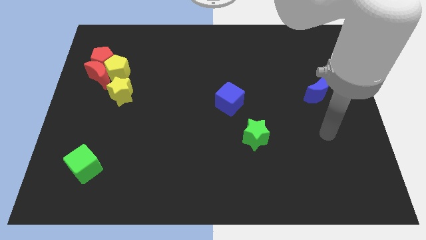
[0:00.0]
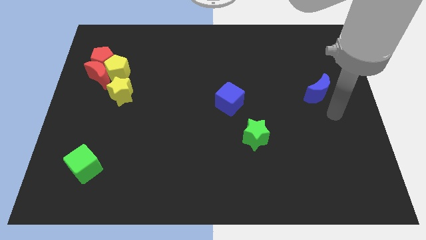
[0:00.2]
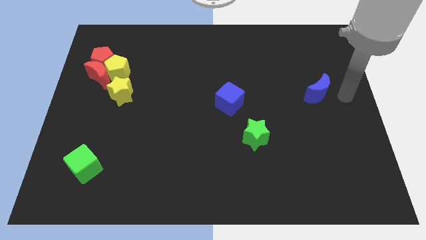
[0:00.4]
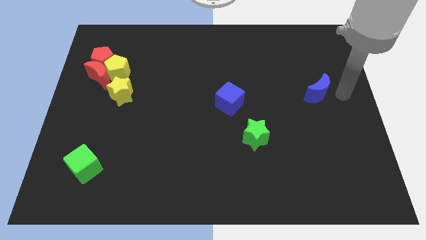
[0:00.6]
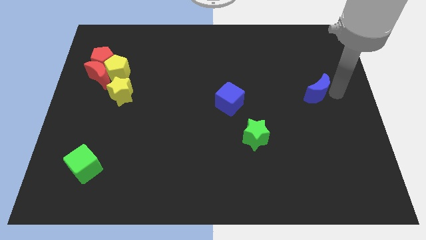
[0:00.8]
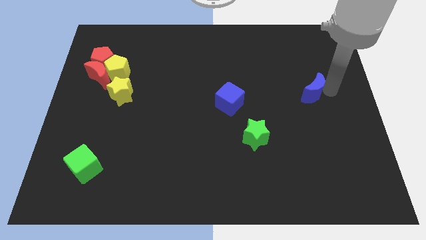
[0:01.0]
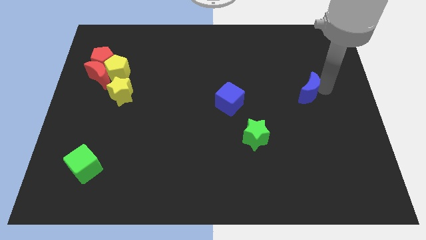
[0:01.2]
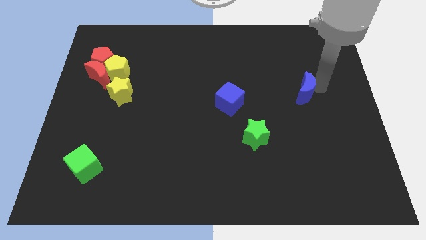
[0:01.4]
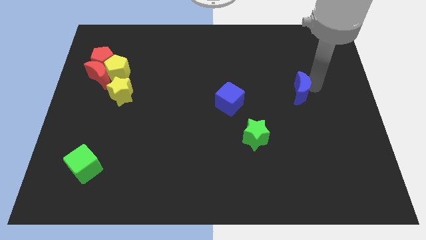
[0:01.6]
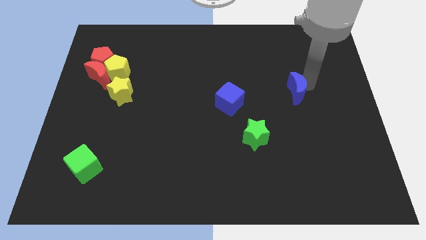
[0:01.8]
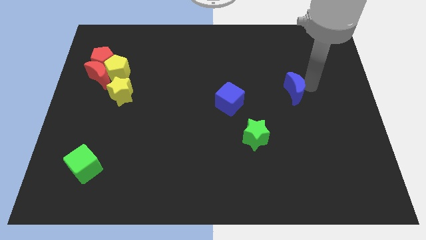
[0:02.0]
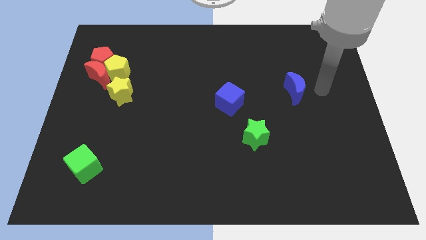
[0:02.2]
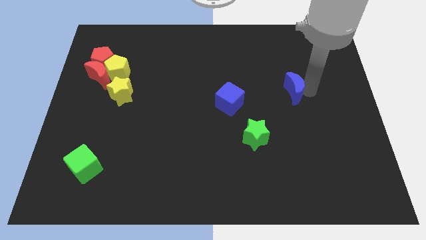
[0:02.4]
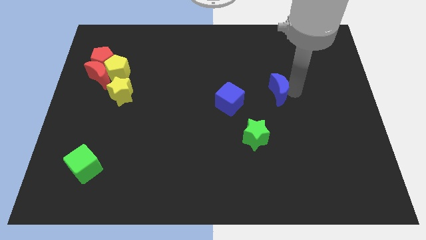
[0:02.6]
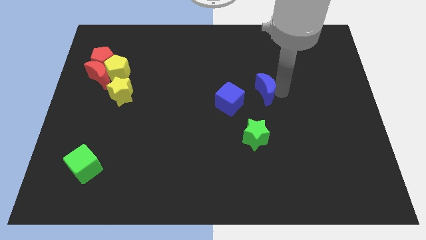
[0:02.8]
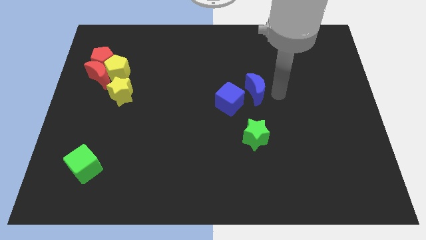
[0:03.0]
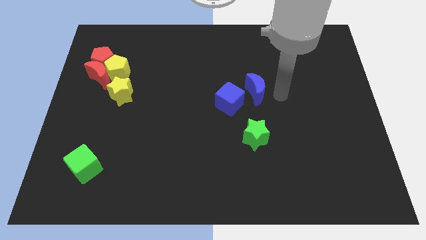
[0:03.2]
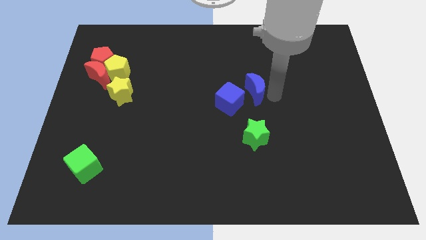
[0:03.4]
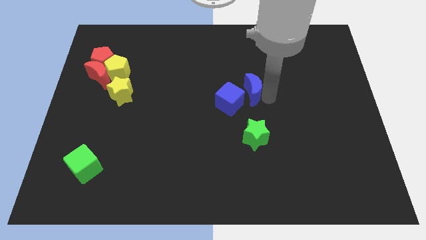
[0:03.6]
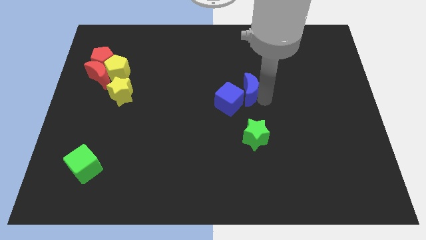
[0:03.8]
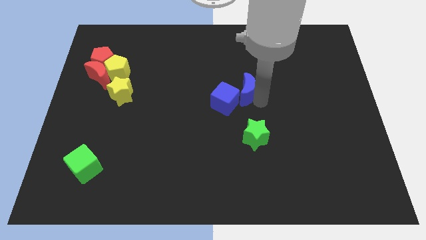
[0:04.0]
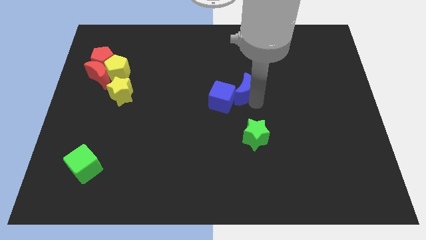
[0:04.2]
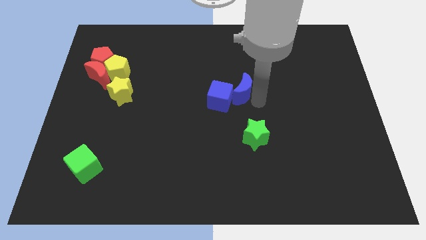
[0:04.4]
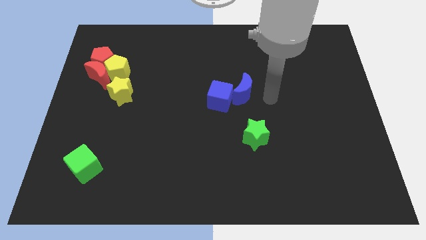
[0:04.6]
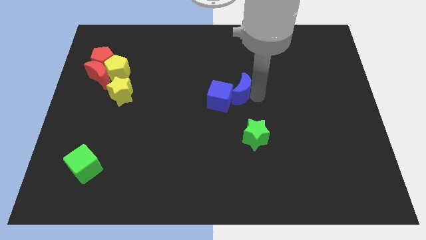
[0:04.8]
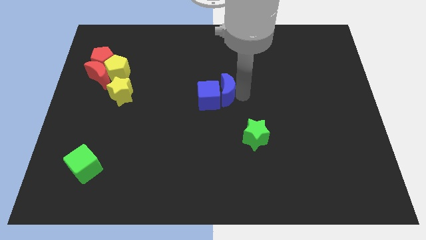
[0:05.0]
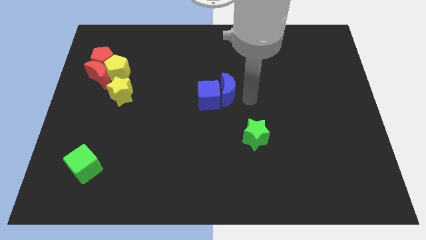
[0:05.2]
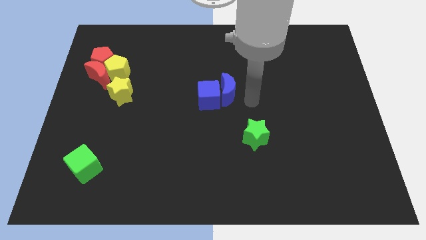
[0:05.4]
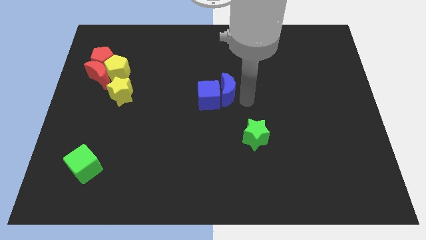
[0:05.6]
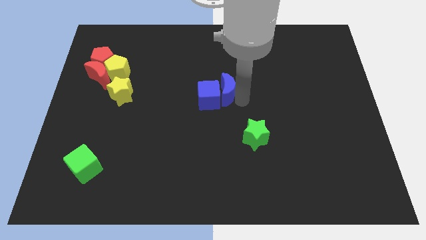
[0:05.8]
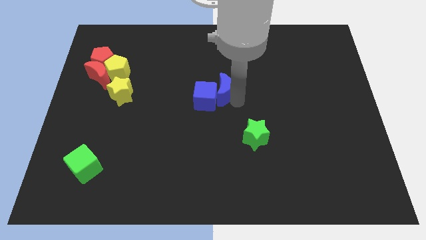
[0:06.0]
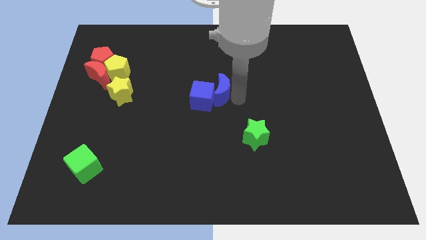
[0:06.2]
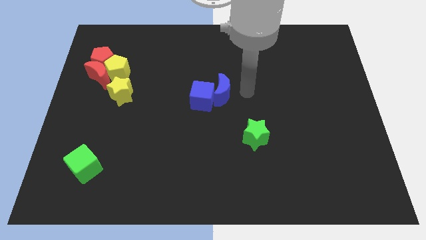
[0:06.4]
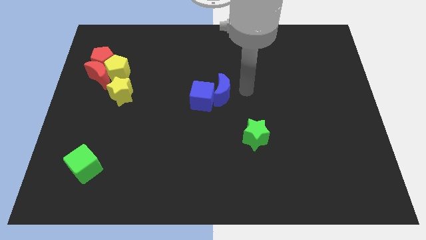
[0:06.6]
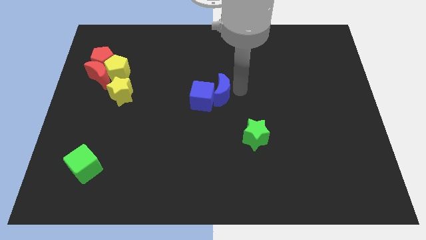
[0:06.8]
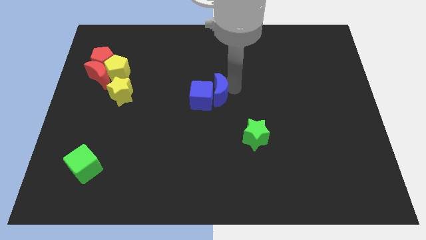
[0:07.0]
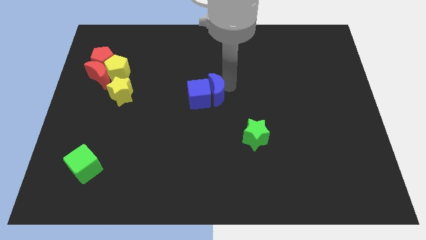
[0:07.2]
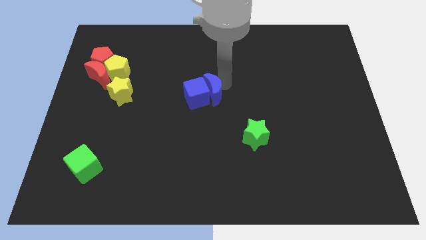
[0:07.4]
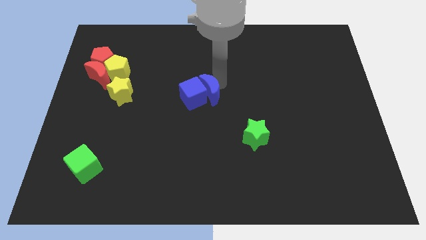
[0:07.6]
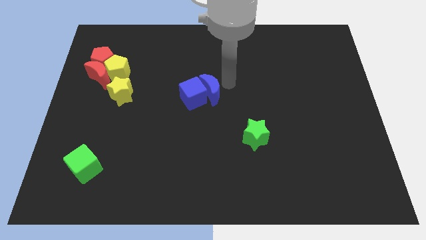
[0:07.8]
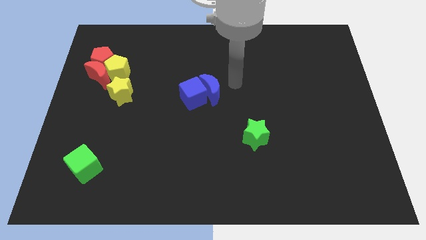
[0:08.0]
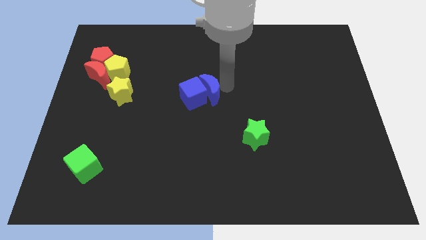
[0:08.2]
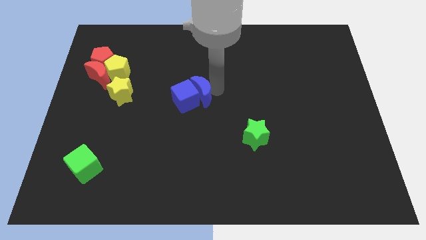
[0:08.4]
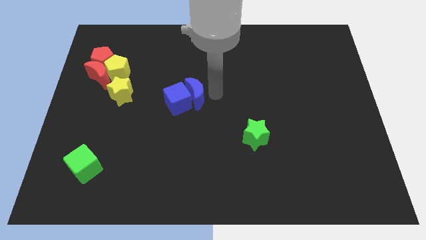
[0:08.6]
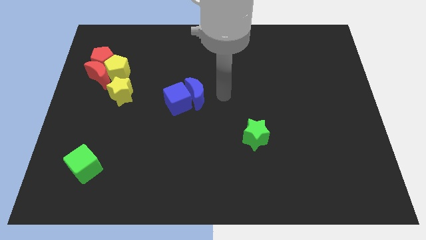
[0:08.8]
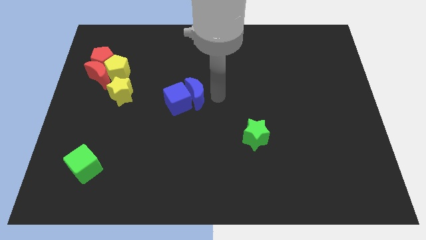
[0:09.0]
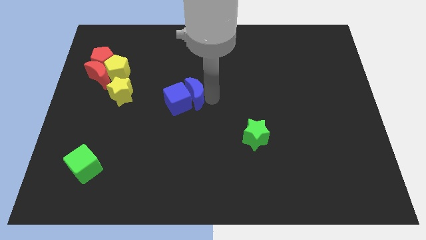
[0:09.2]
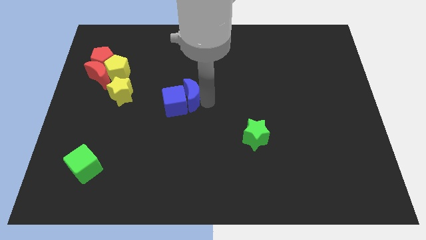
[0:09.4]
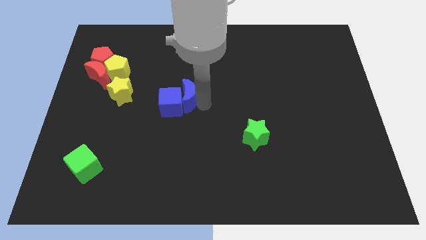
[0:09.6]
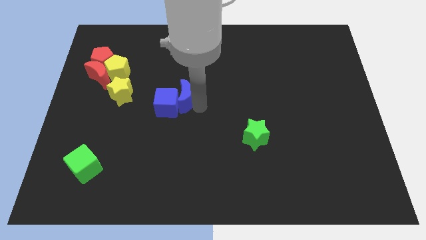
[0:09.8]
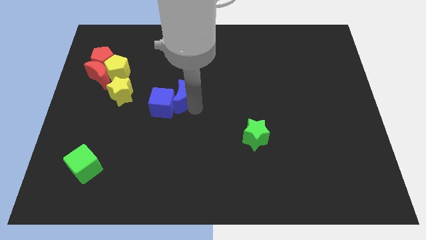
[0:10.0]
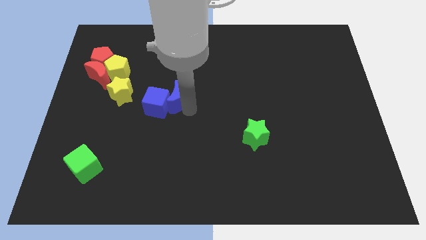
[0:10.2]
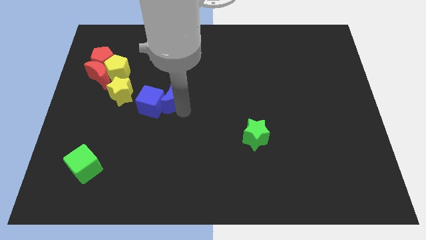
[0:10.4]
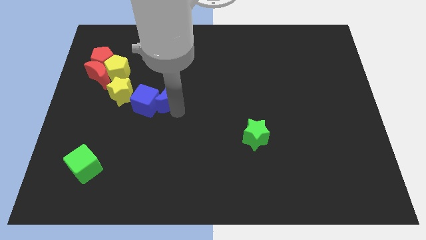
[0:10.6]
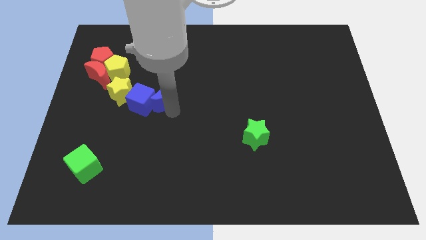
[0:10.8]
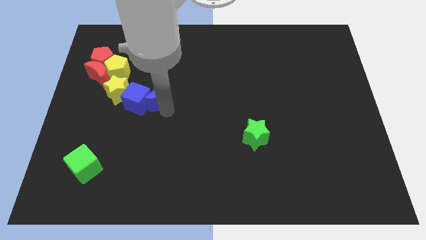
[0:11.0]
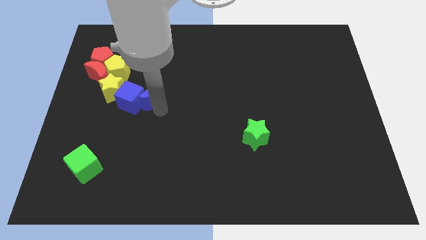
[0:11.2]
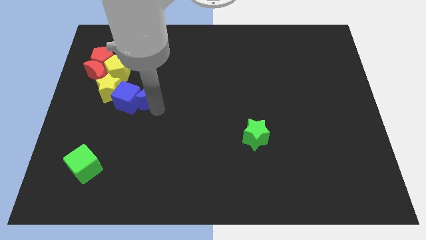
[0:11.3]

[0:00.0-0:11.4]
push the blue moon diagonally down and to the right of the yellow pentagon
